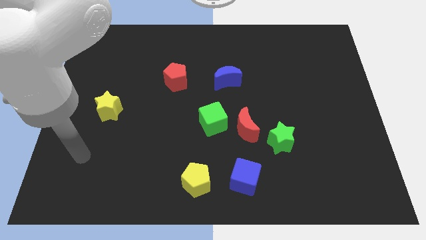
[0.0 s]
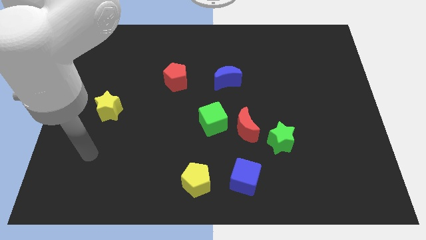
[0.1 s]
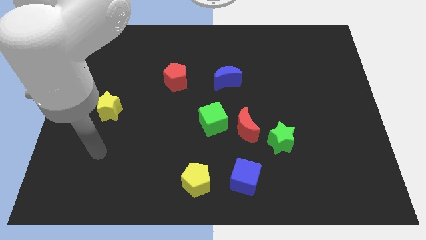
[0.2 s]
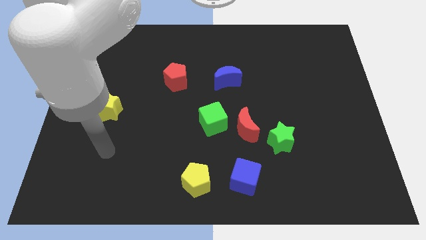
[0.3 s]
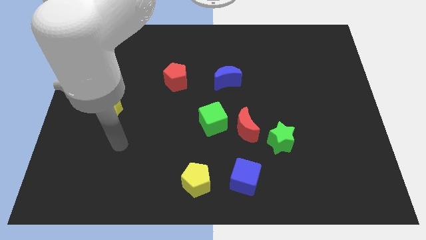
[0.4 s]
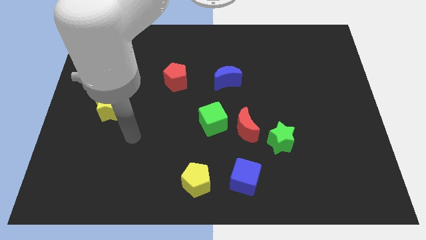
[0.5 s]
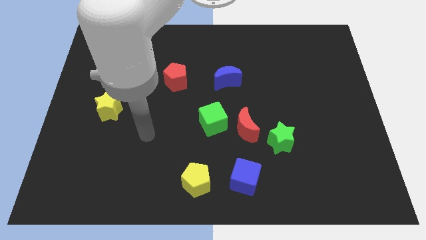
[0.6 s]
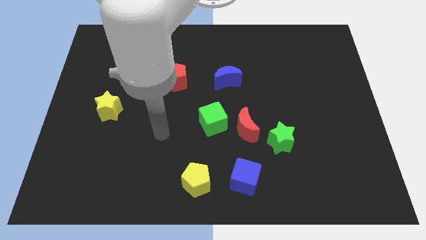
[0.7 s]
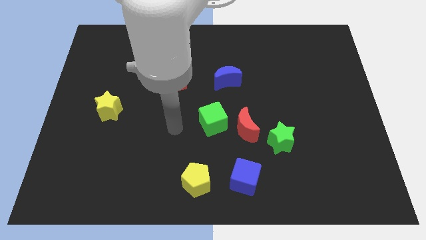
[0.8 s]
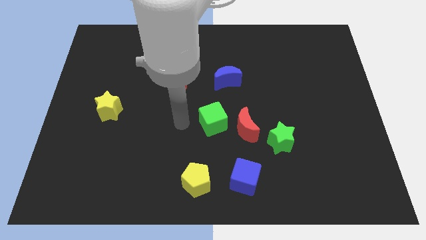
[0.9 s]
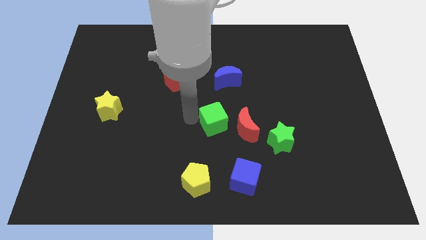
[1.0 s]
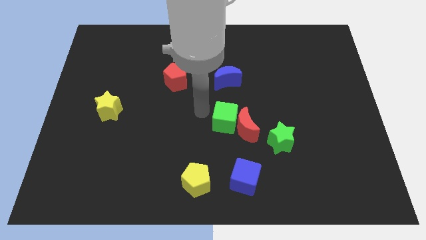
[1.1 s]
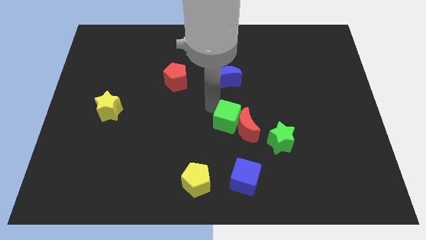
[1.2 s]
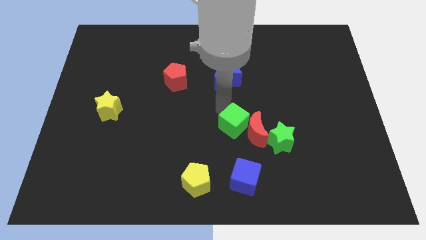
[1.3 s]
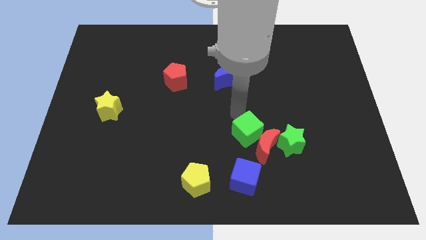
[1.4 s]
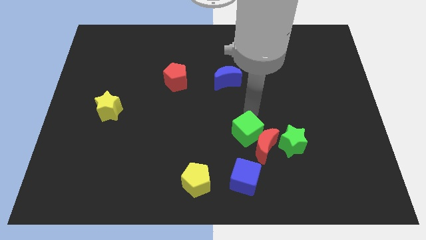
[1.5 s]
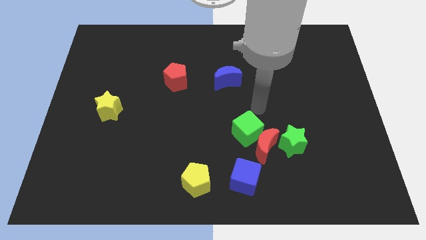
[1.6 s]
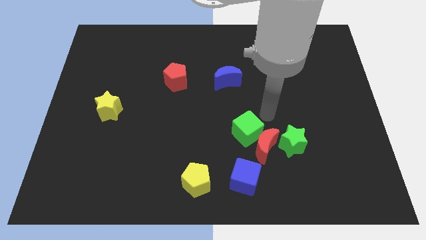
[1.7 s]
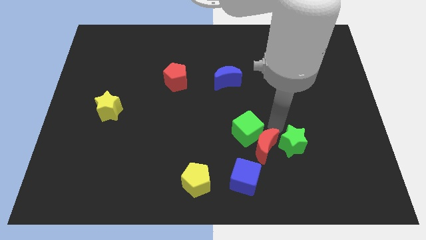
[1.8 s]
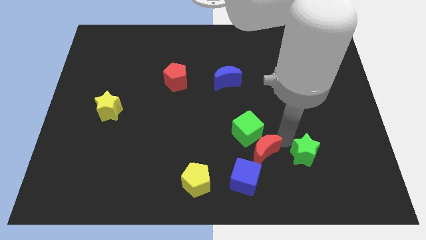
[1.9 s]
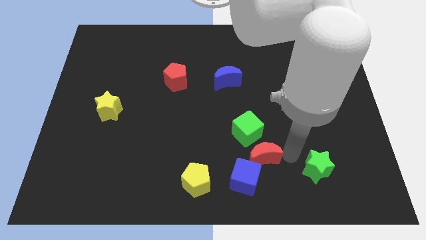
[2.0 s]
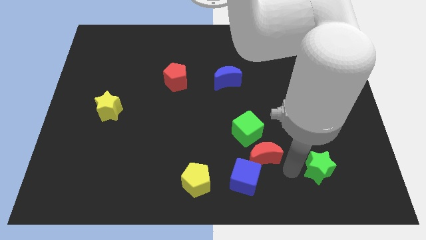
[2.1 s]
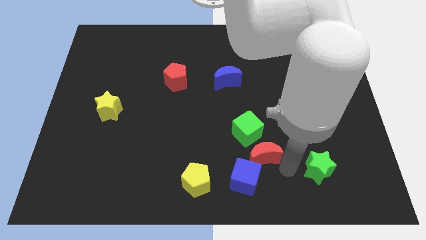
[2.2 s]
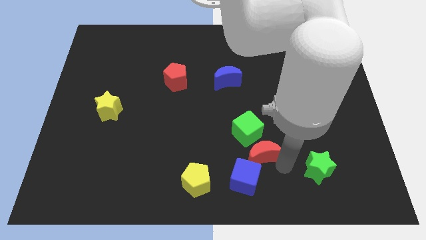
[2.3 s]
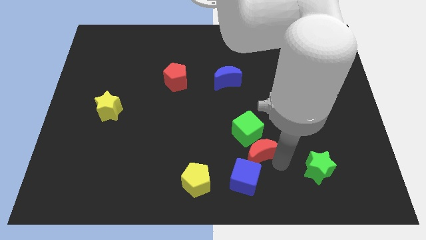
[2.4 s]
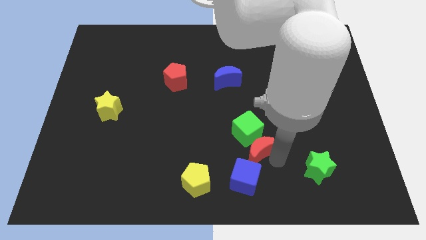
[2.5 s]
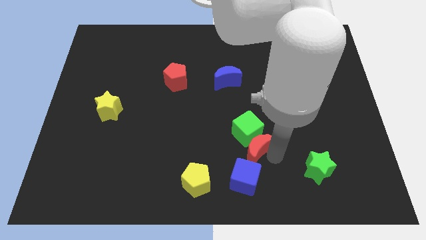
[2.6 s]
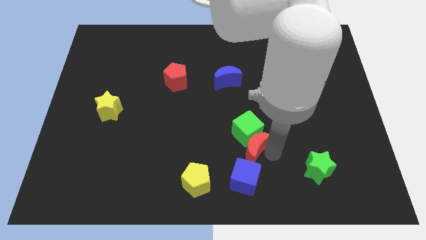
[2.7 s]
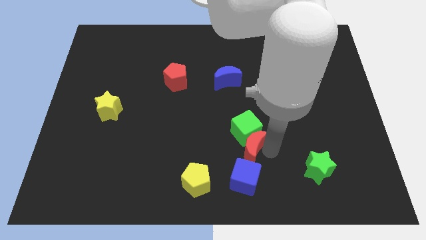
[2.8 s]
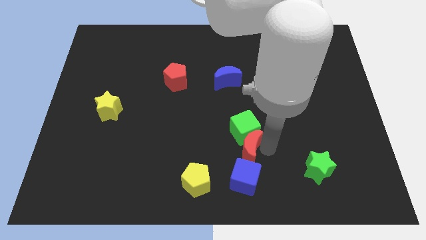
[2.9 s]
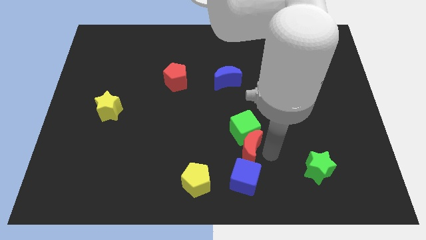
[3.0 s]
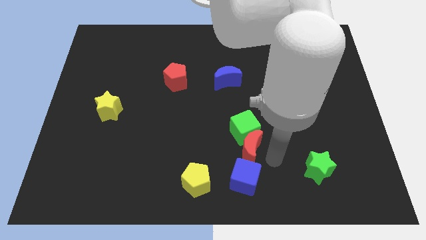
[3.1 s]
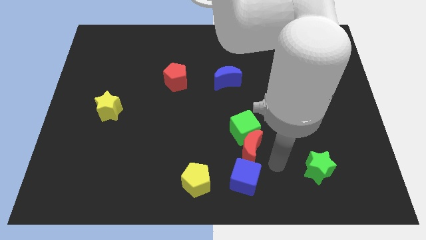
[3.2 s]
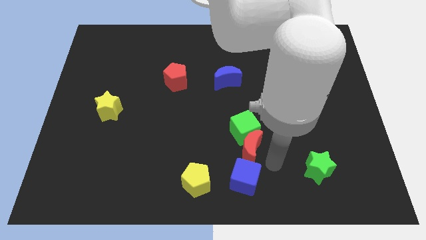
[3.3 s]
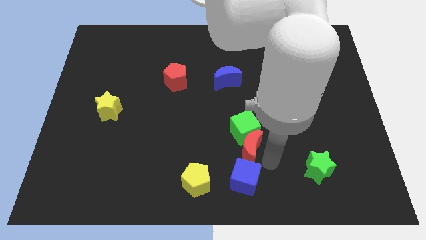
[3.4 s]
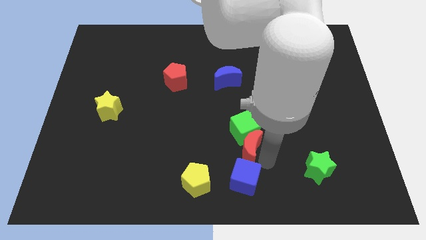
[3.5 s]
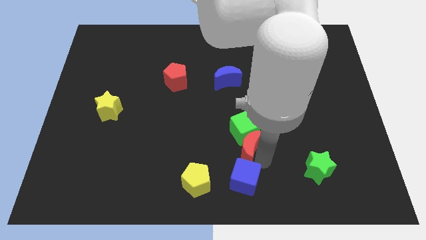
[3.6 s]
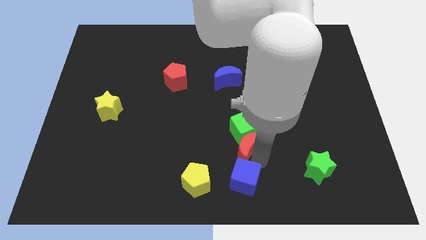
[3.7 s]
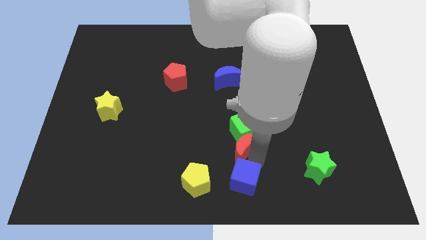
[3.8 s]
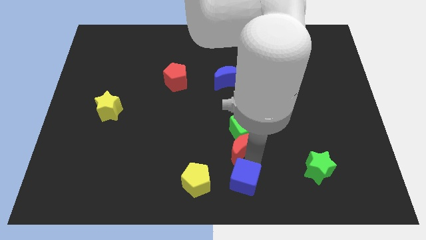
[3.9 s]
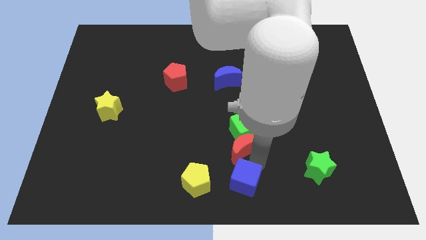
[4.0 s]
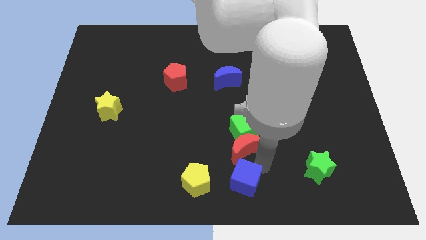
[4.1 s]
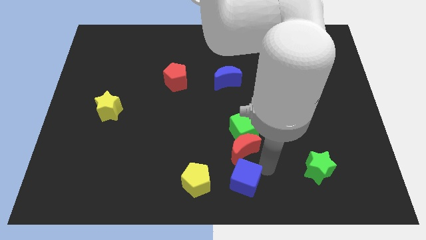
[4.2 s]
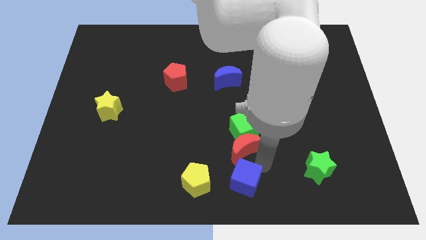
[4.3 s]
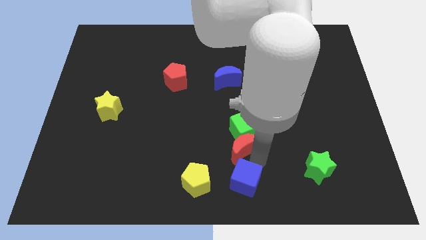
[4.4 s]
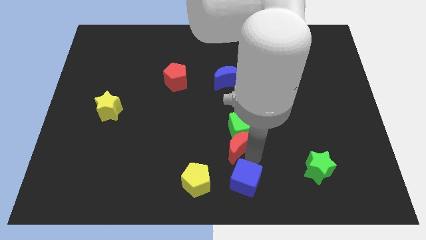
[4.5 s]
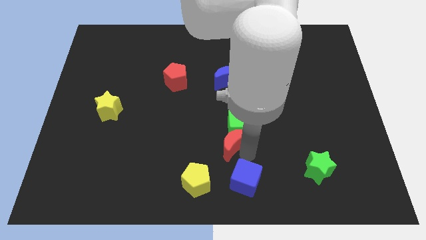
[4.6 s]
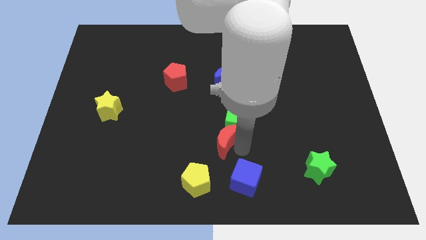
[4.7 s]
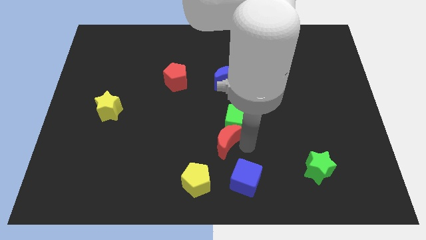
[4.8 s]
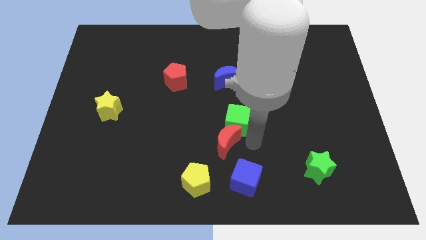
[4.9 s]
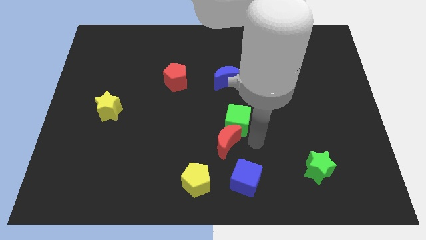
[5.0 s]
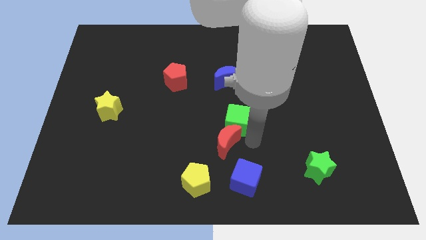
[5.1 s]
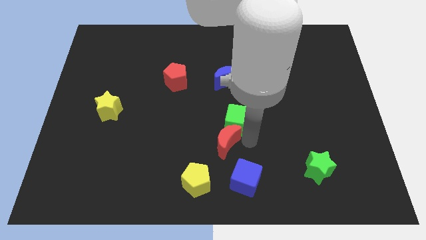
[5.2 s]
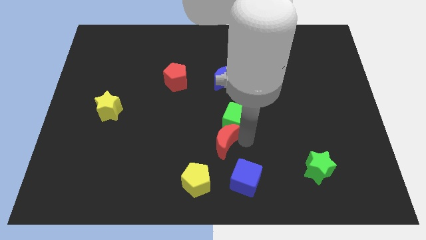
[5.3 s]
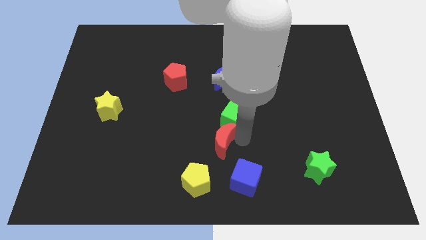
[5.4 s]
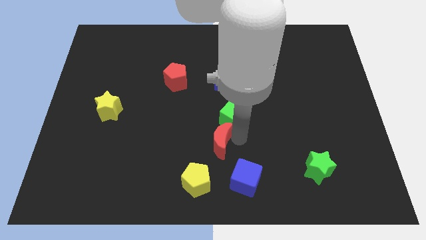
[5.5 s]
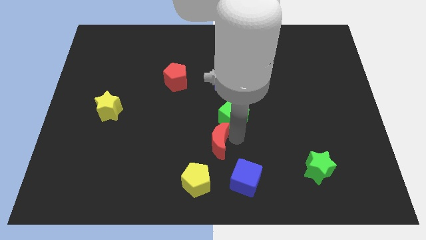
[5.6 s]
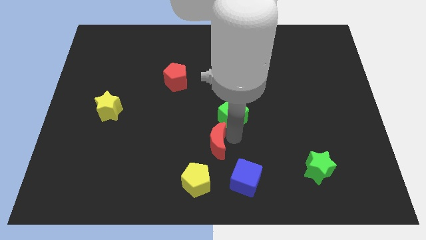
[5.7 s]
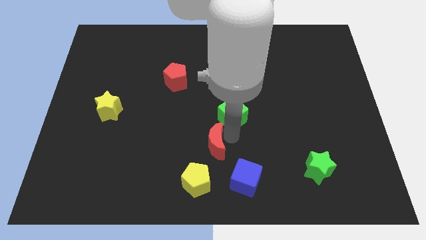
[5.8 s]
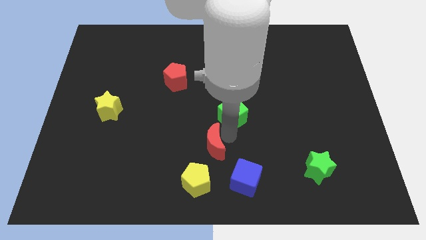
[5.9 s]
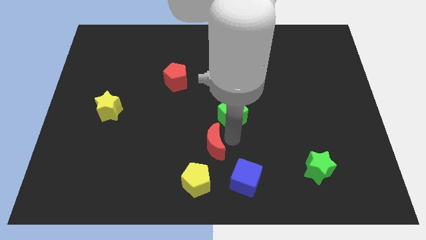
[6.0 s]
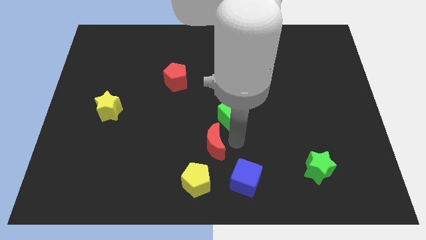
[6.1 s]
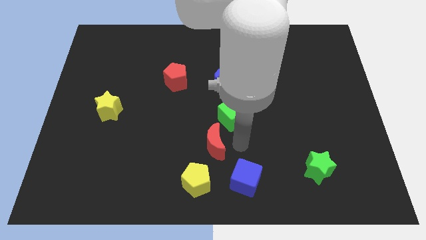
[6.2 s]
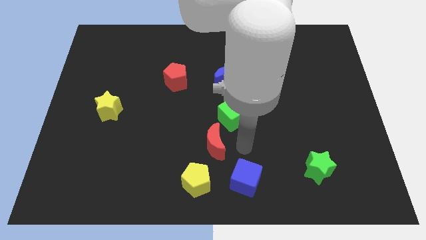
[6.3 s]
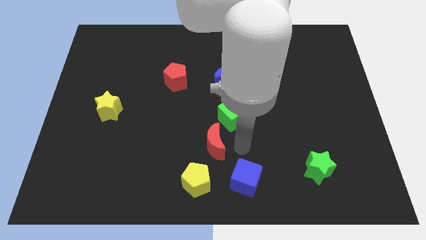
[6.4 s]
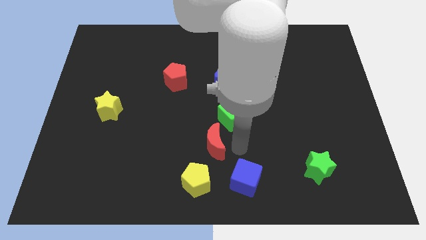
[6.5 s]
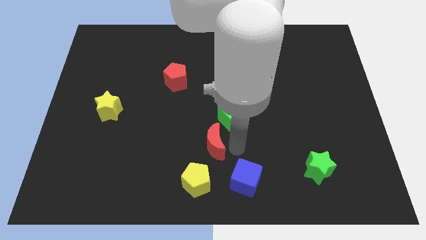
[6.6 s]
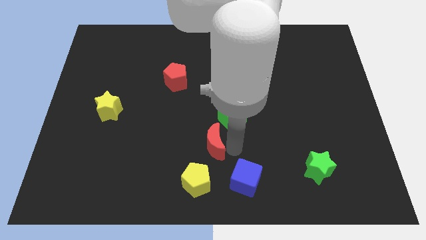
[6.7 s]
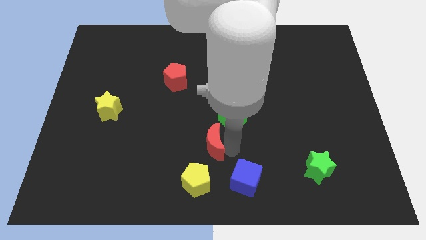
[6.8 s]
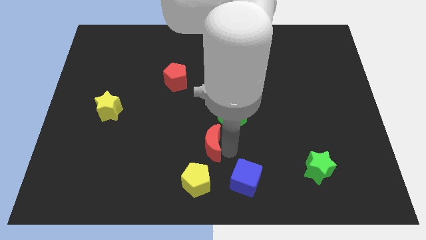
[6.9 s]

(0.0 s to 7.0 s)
slide the red moon to the left slightly

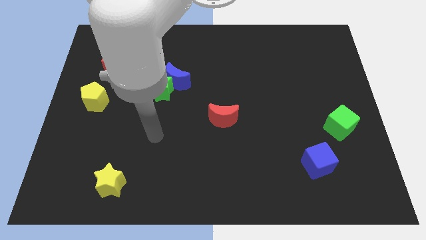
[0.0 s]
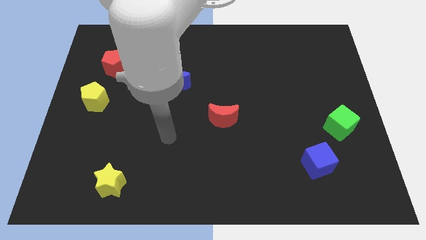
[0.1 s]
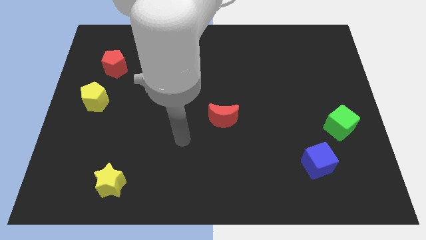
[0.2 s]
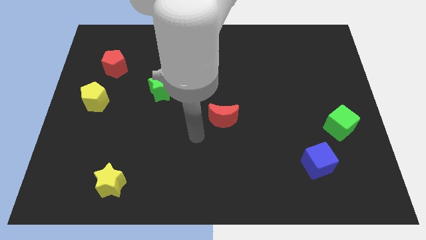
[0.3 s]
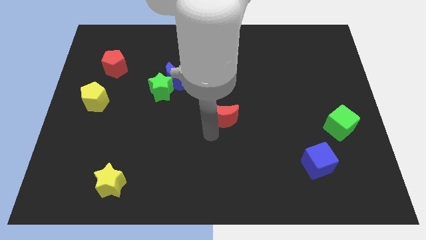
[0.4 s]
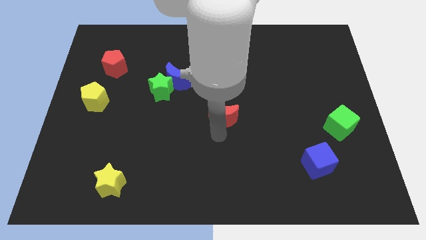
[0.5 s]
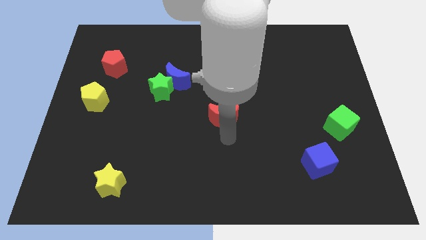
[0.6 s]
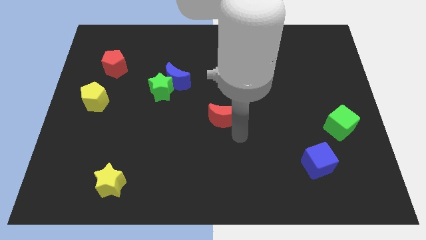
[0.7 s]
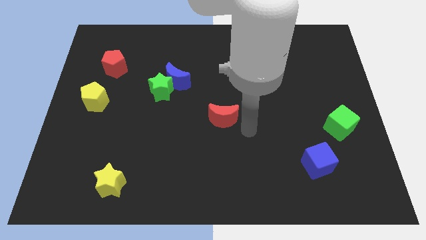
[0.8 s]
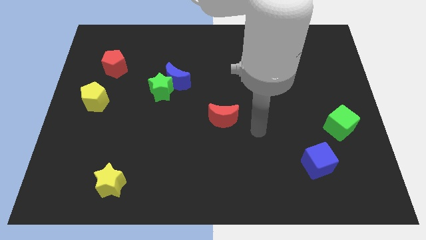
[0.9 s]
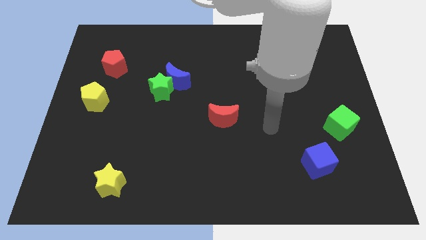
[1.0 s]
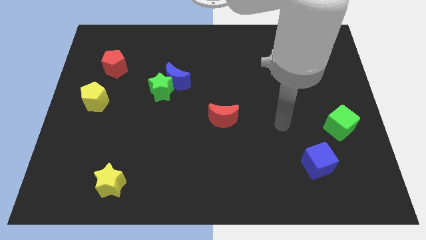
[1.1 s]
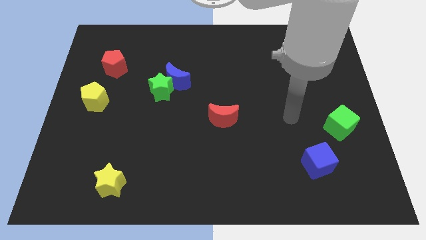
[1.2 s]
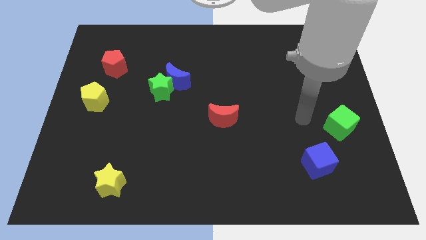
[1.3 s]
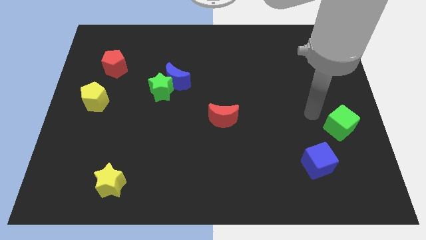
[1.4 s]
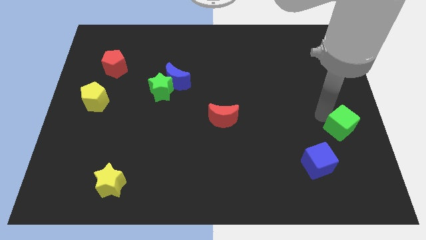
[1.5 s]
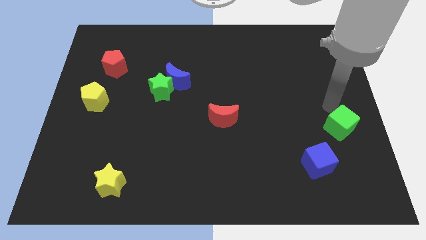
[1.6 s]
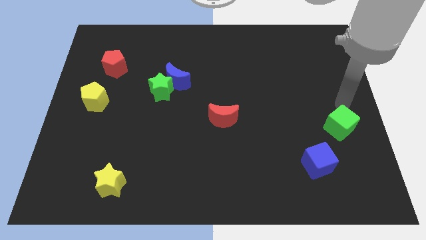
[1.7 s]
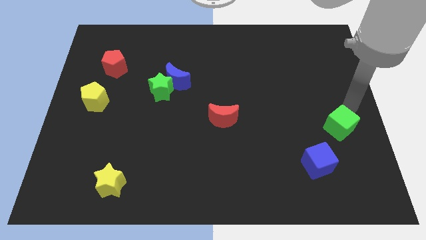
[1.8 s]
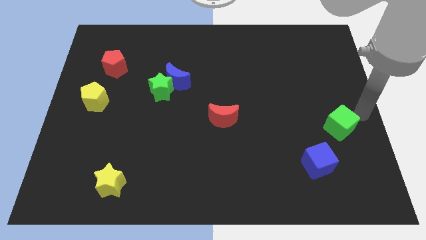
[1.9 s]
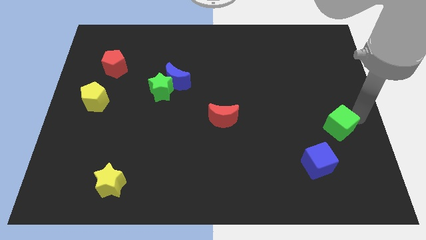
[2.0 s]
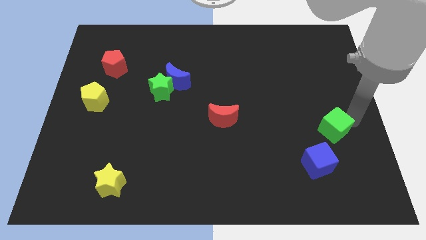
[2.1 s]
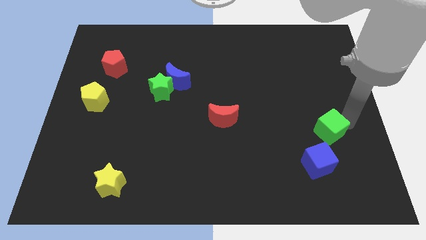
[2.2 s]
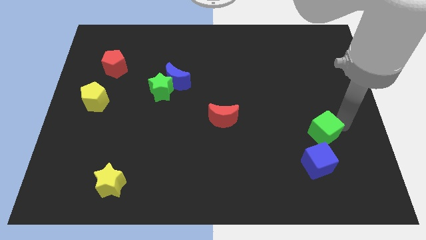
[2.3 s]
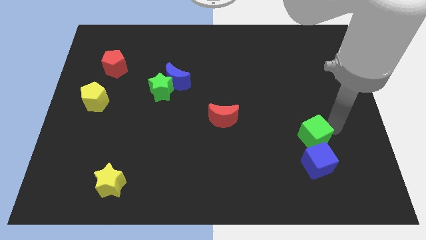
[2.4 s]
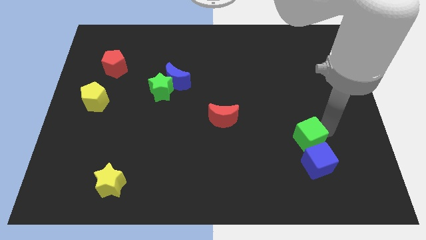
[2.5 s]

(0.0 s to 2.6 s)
slightly slide the green cube diagonally down and left
